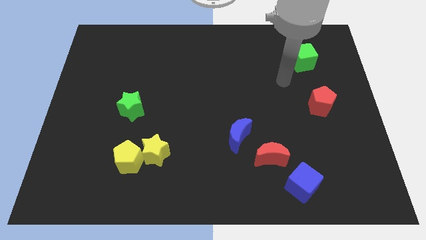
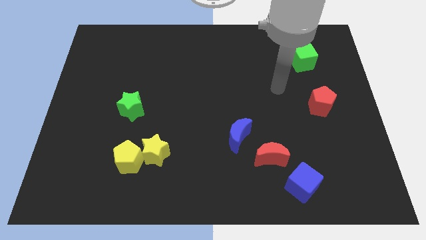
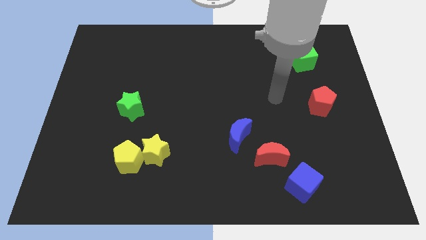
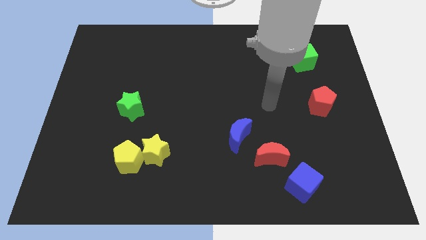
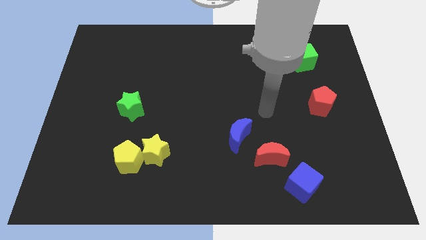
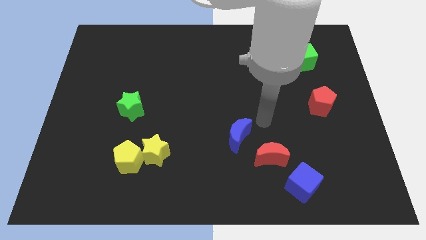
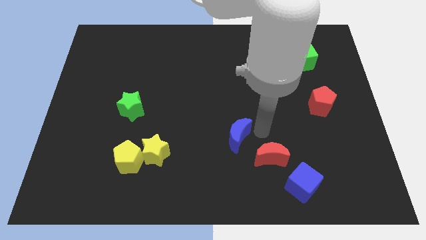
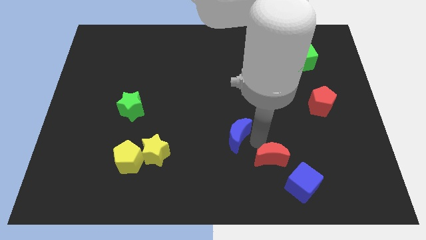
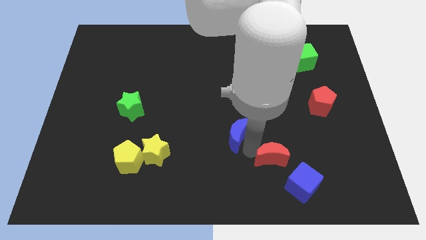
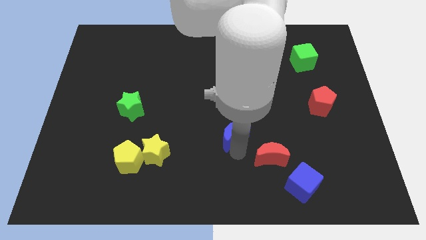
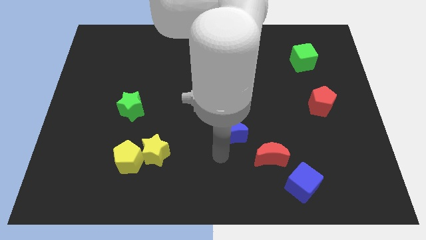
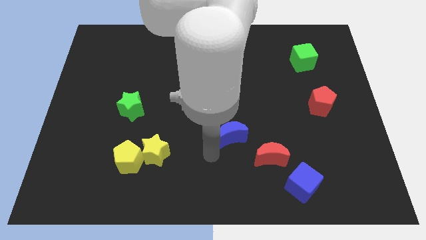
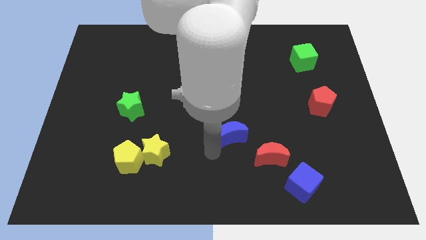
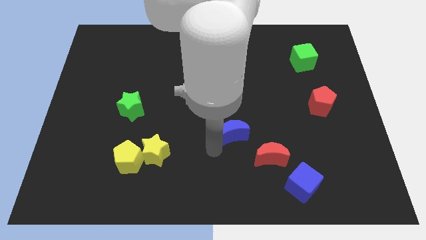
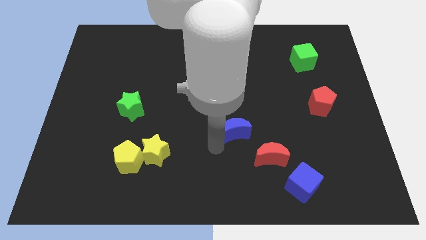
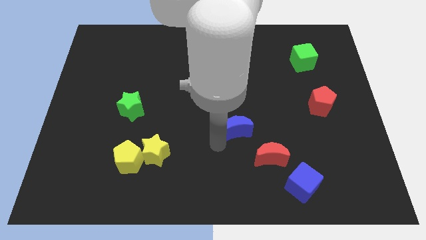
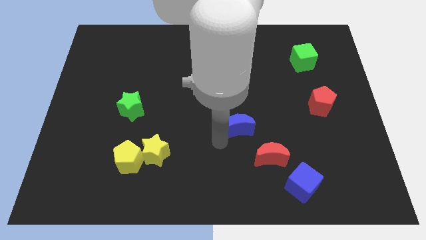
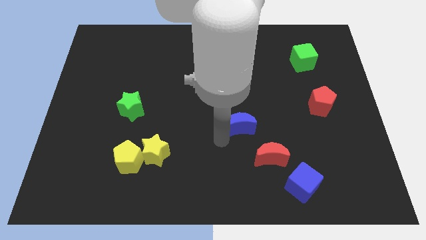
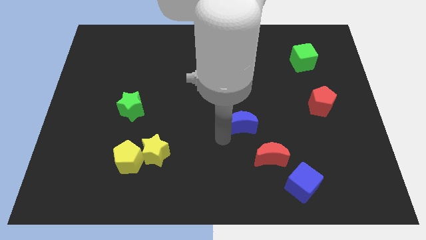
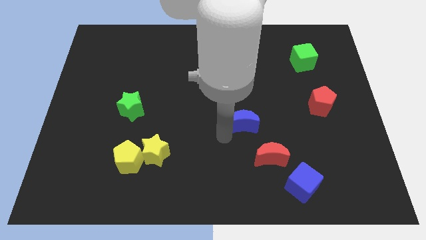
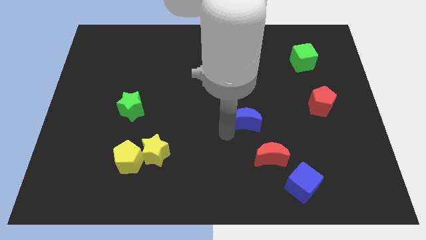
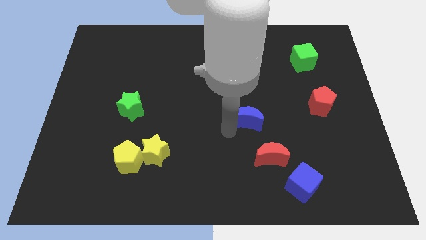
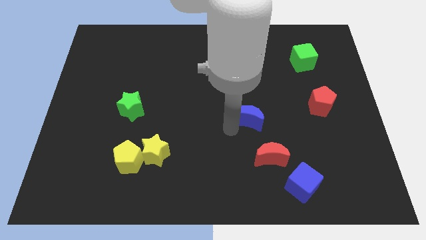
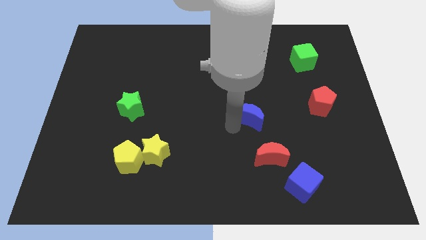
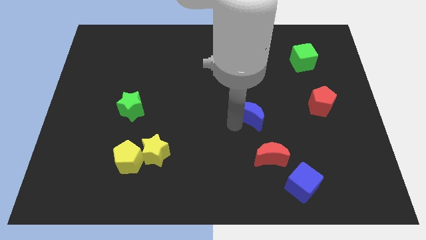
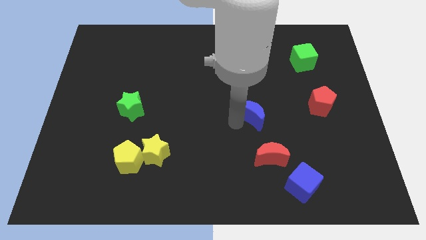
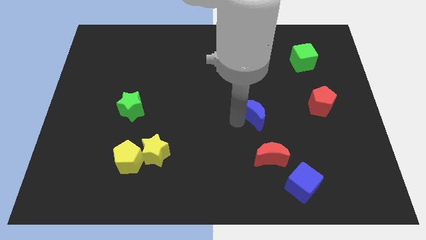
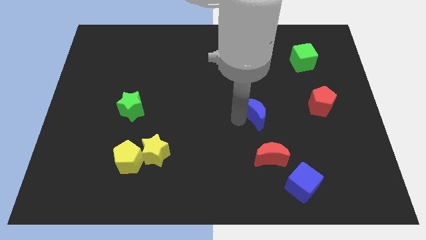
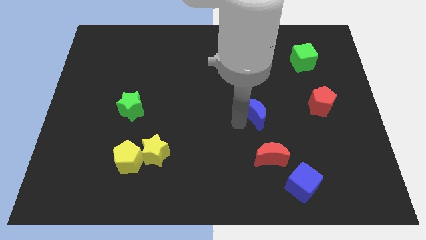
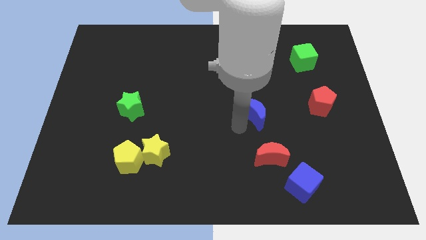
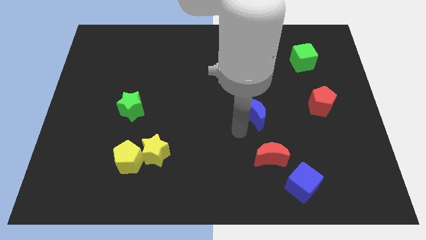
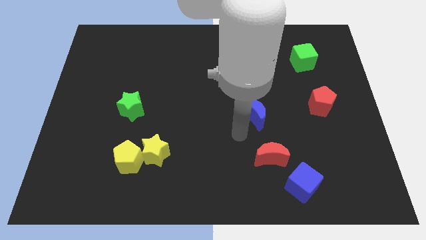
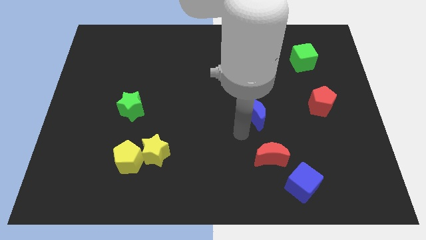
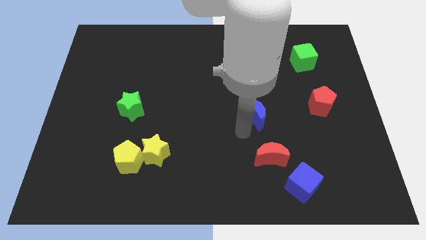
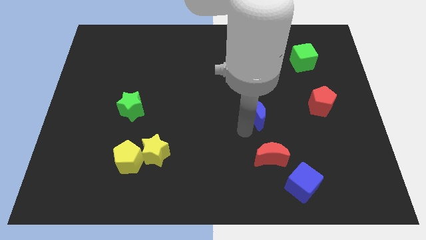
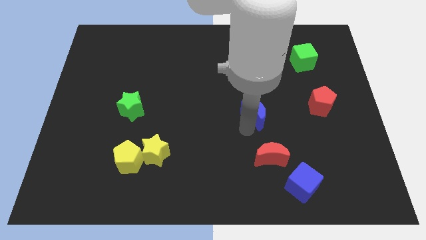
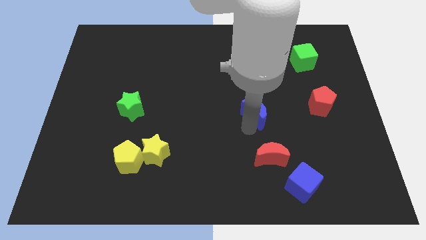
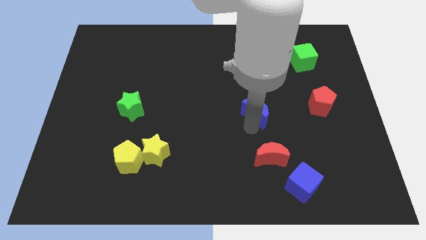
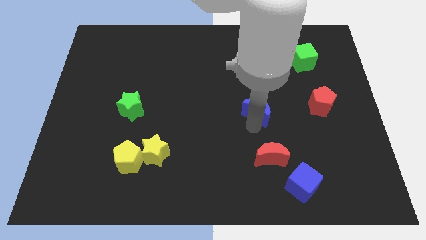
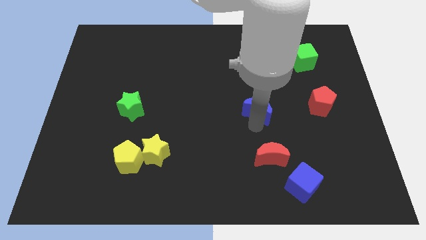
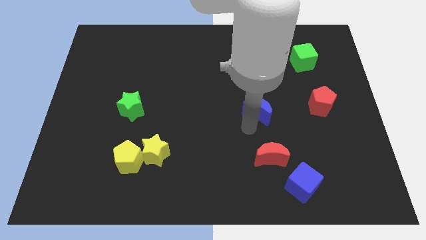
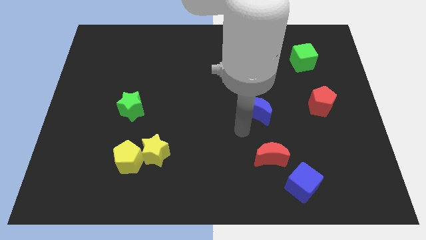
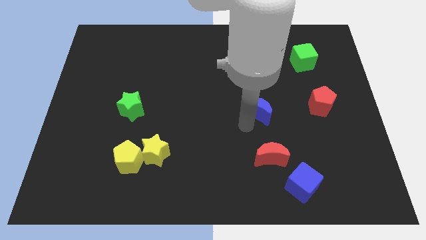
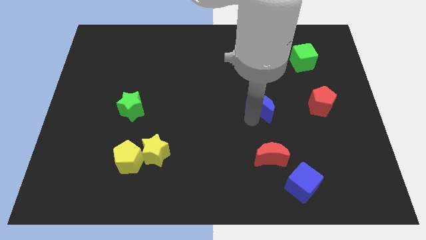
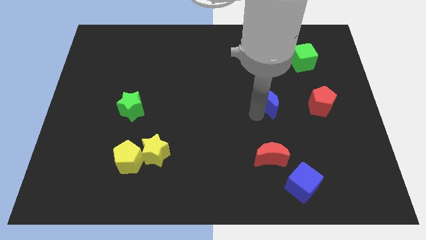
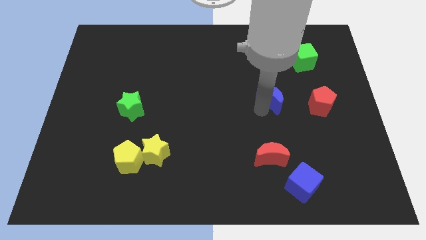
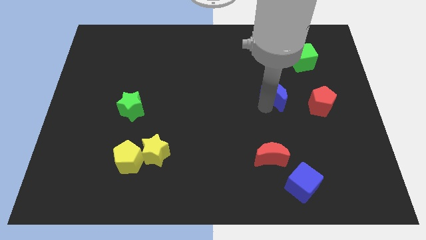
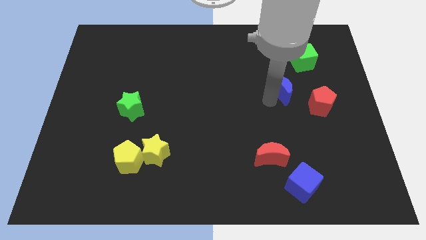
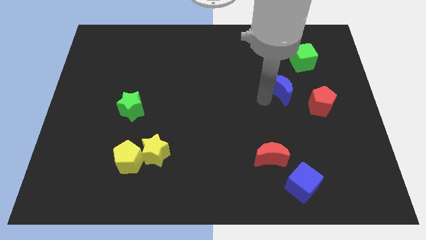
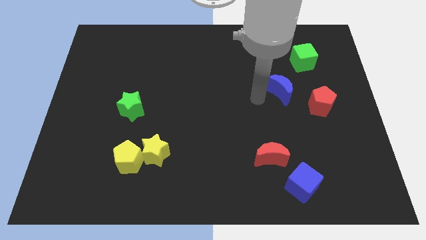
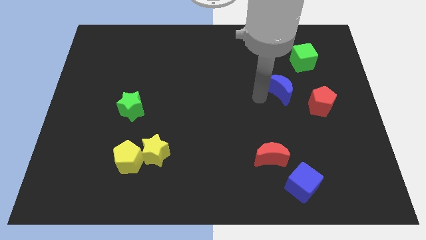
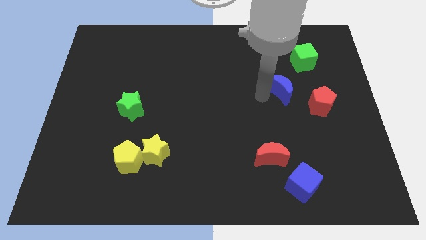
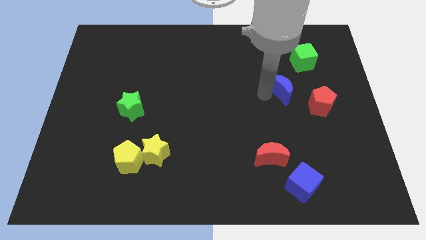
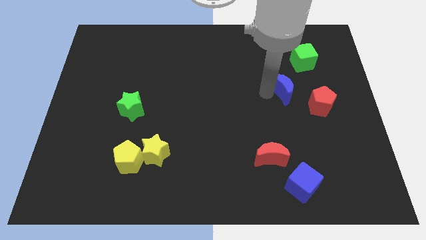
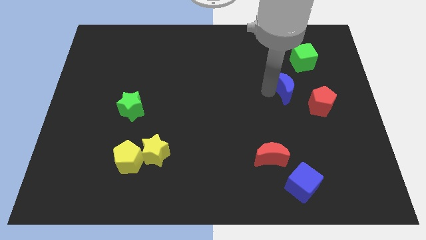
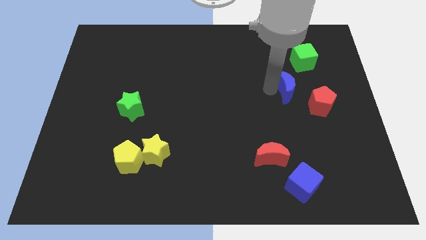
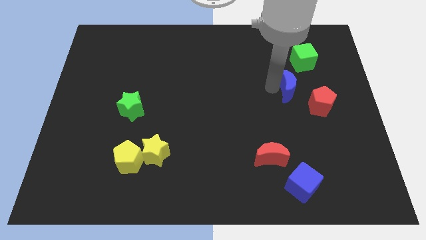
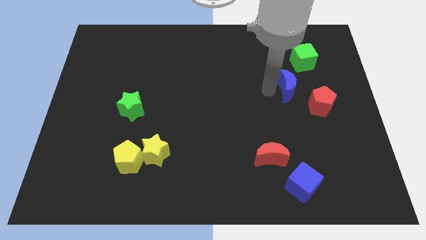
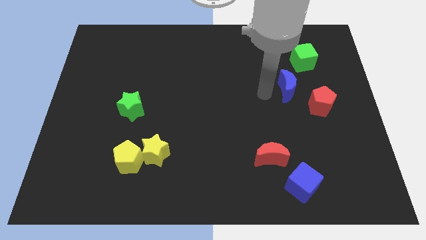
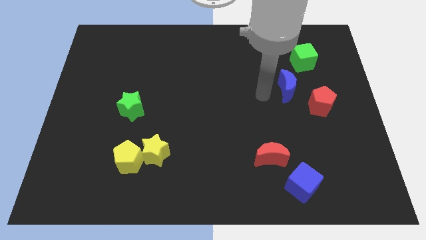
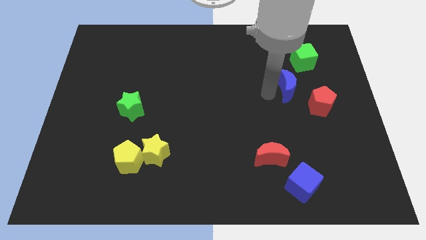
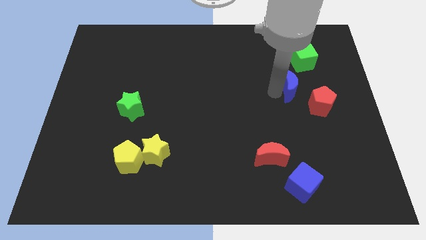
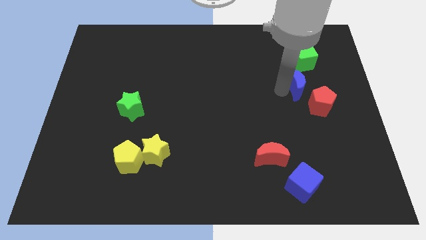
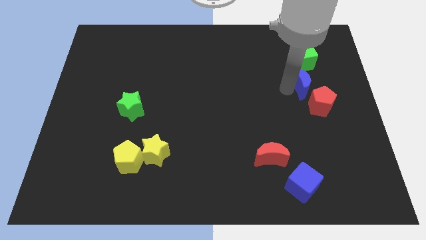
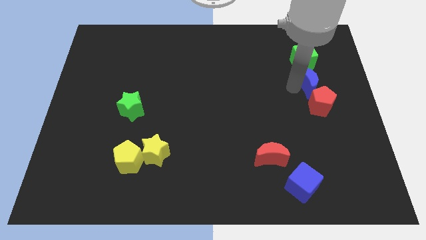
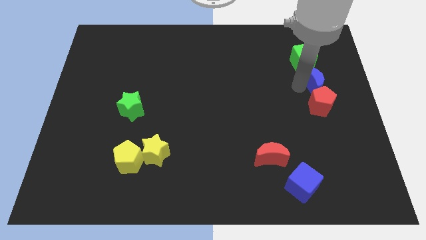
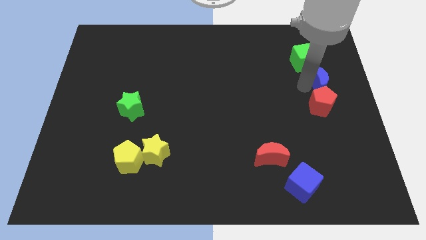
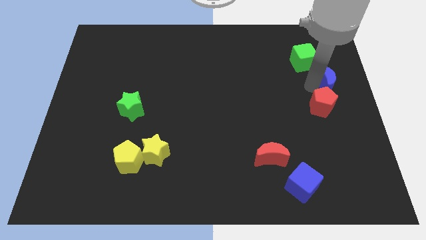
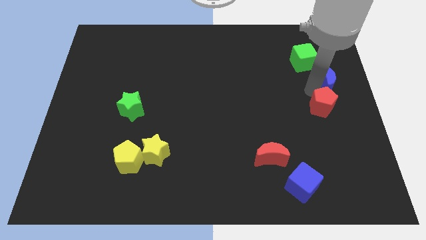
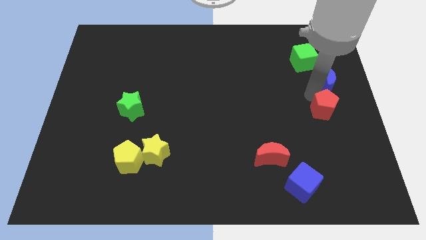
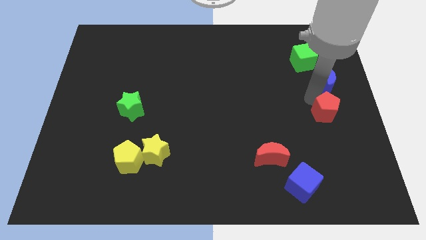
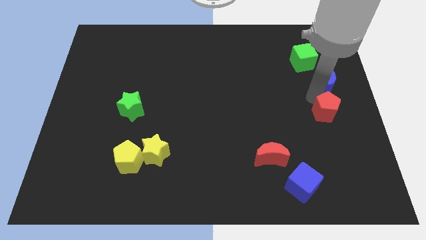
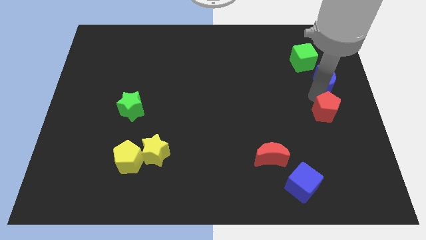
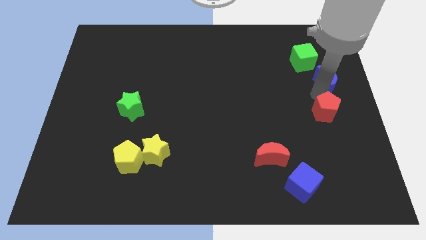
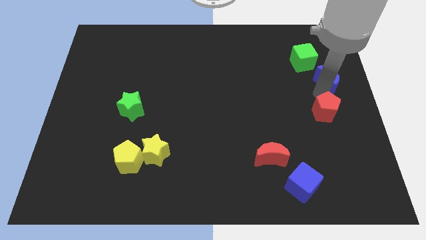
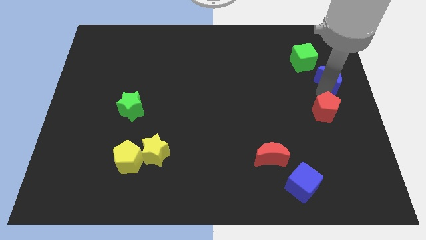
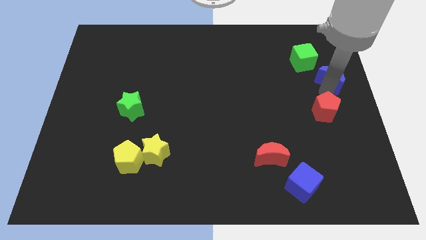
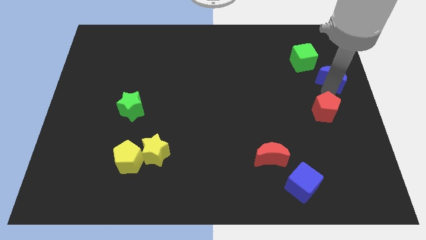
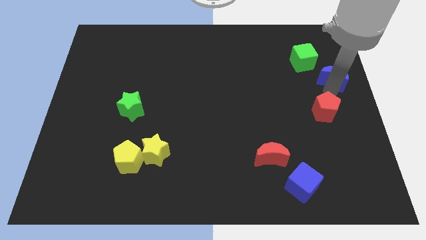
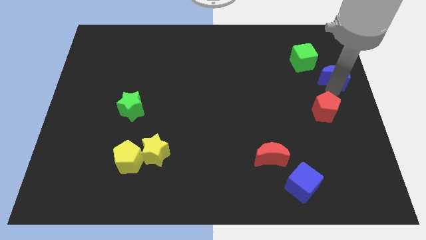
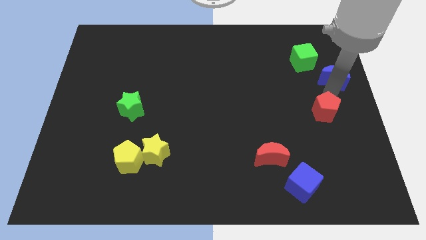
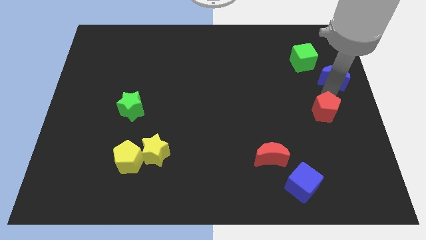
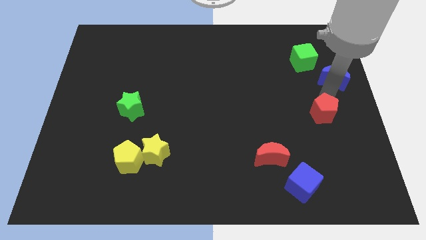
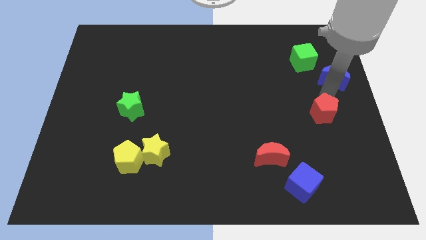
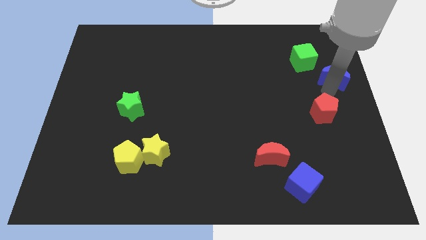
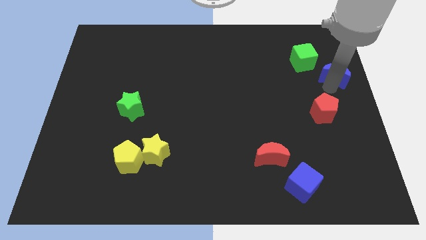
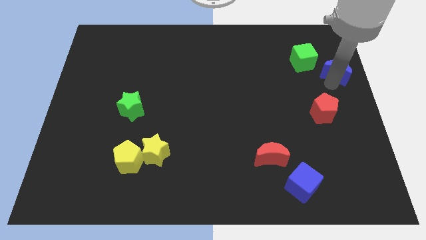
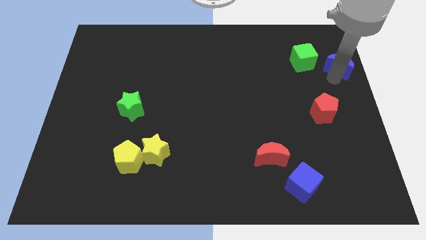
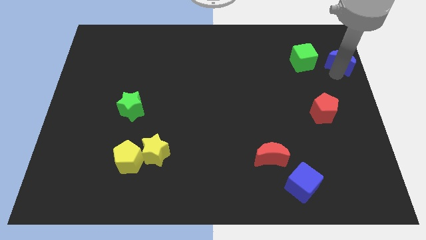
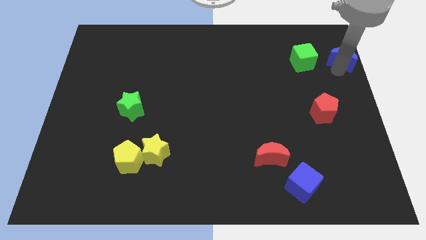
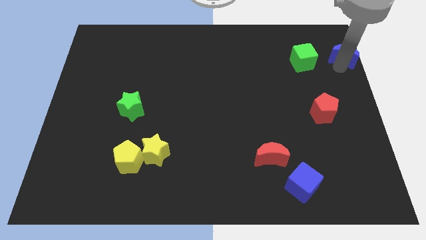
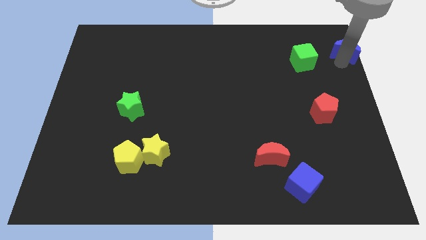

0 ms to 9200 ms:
slide the blue moon to the top right
